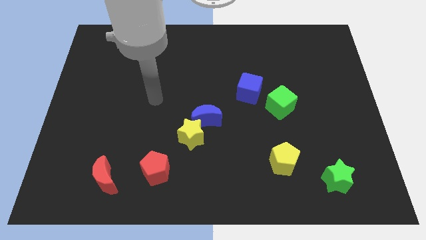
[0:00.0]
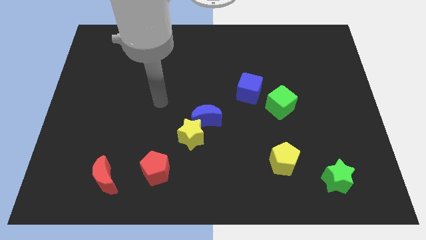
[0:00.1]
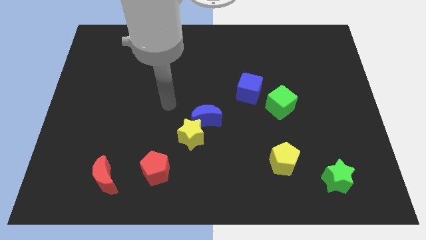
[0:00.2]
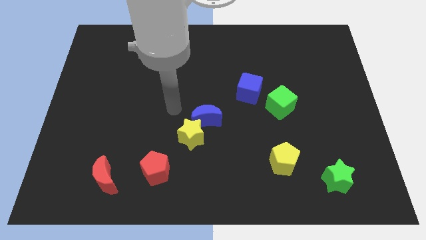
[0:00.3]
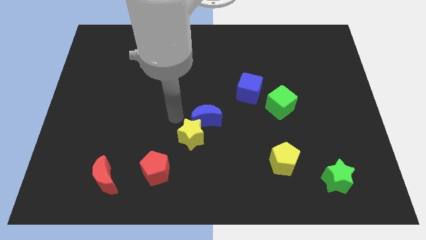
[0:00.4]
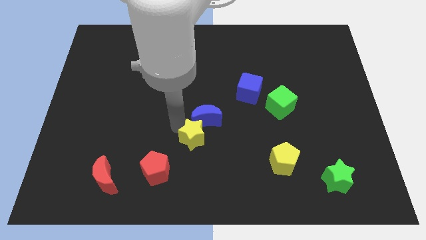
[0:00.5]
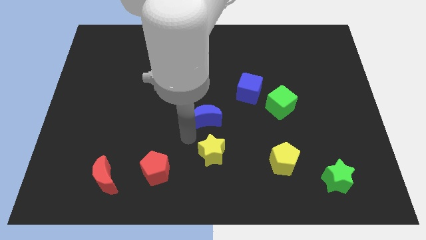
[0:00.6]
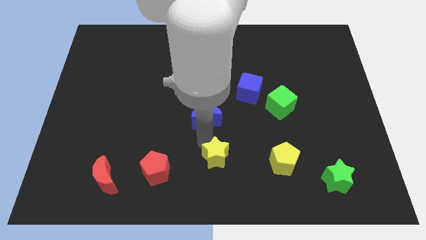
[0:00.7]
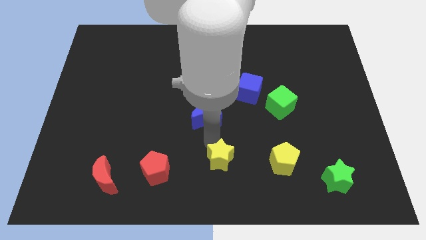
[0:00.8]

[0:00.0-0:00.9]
move the blue moon away from the yellow star

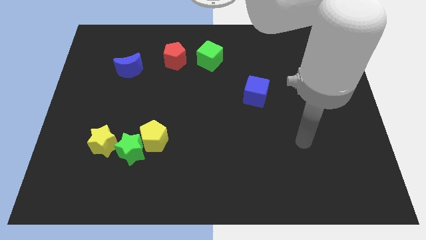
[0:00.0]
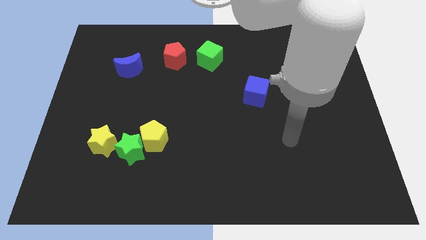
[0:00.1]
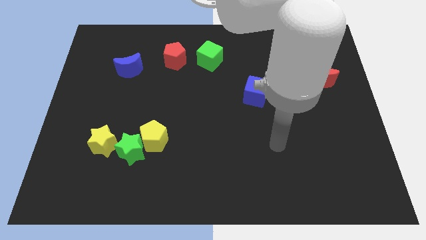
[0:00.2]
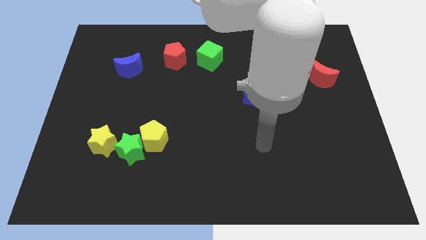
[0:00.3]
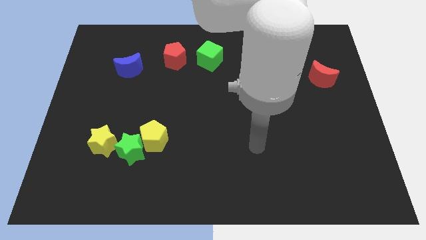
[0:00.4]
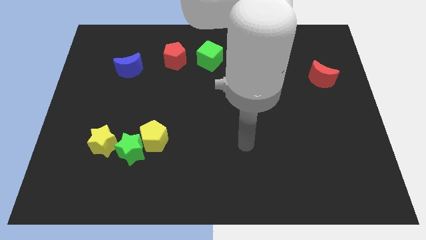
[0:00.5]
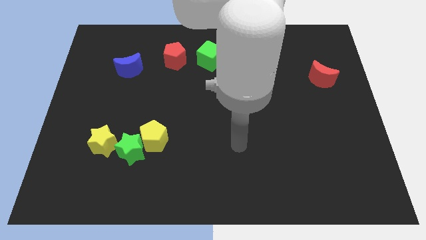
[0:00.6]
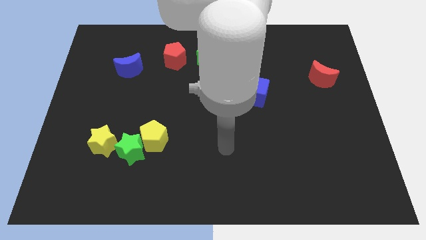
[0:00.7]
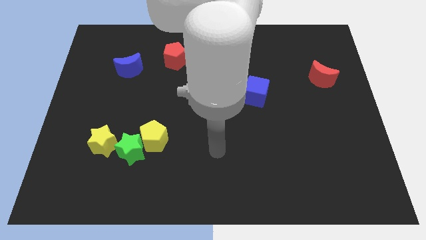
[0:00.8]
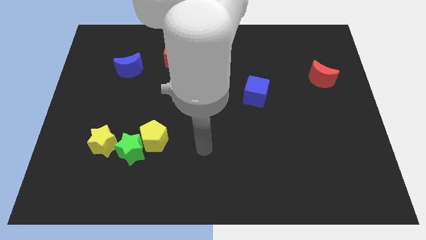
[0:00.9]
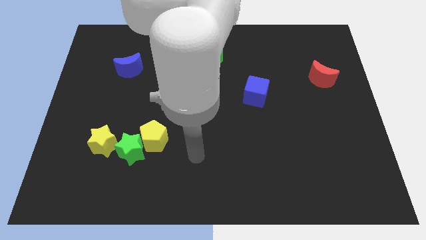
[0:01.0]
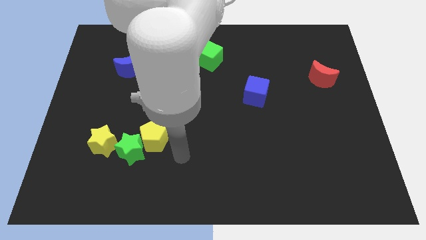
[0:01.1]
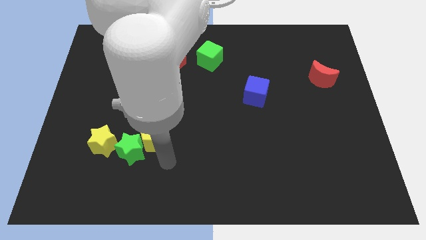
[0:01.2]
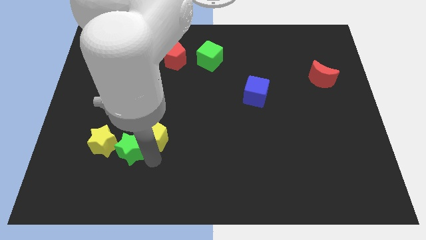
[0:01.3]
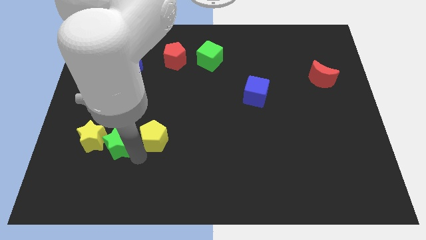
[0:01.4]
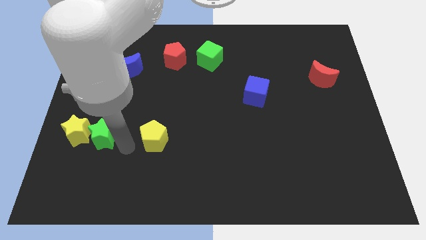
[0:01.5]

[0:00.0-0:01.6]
move the yellow pentagon away from the green star

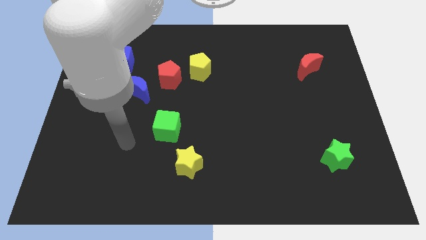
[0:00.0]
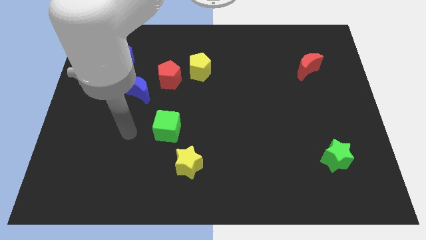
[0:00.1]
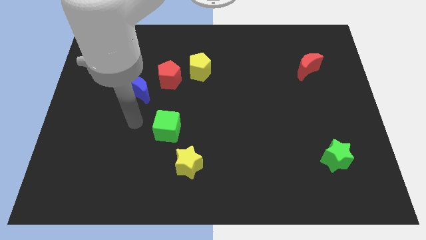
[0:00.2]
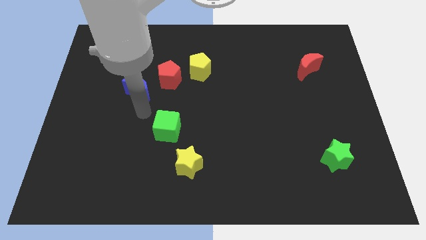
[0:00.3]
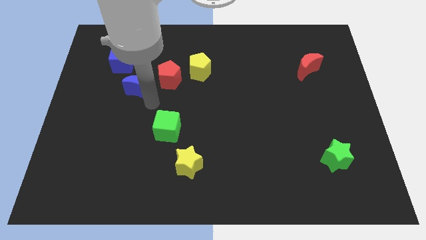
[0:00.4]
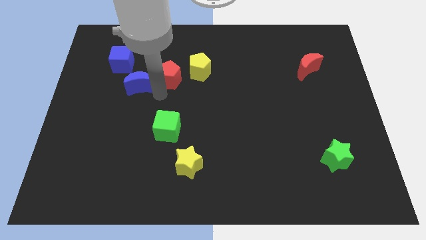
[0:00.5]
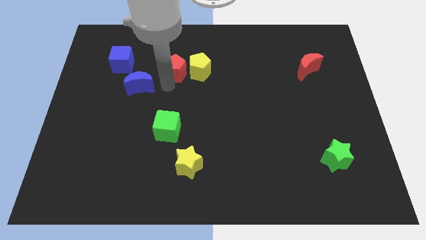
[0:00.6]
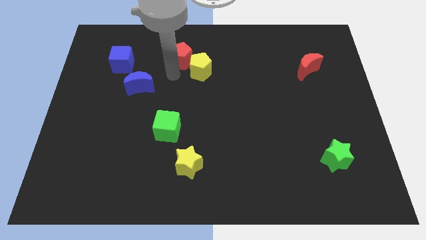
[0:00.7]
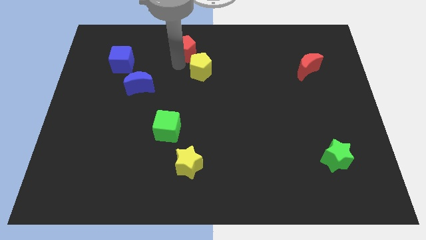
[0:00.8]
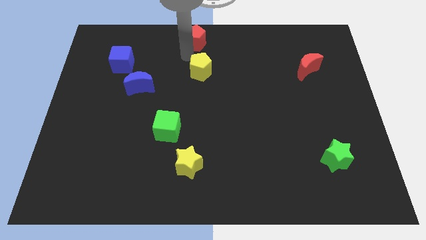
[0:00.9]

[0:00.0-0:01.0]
move the yellow pentagon away from the red pentagon

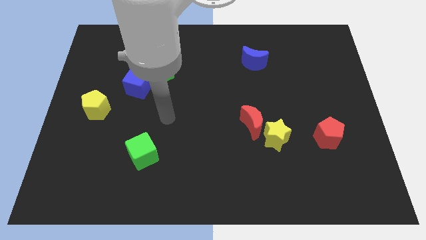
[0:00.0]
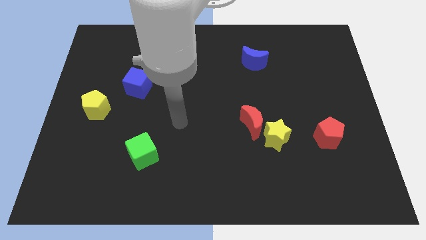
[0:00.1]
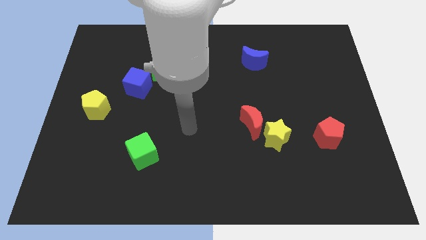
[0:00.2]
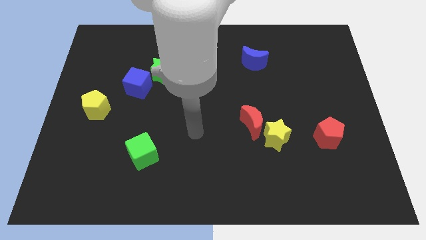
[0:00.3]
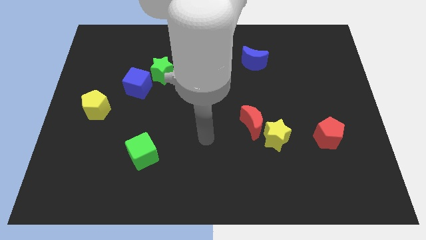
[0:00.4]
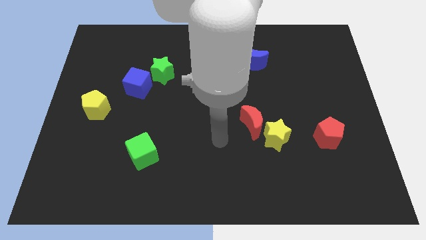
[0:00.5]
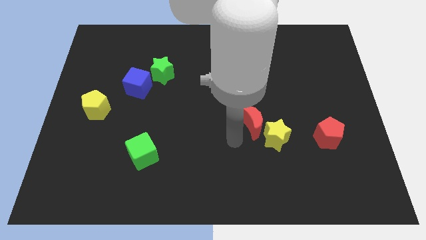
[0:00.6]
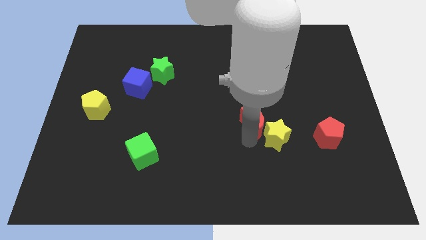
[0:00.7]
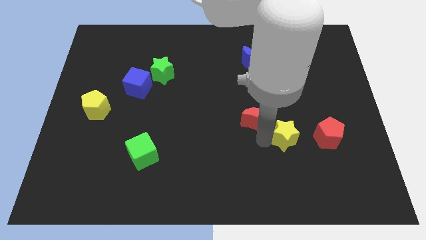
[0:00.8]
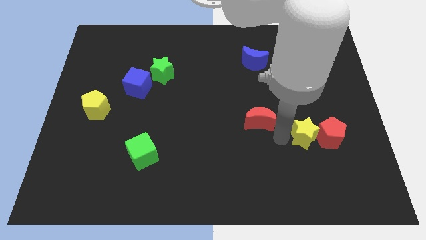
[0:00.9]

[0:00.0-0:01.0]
pull the red moon apart from the yellow star

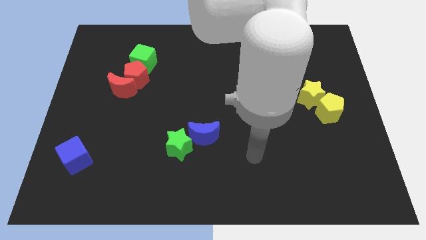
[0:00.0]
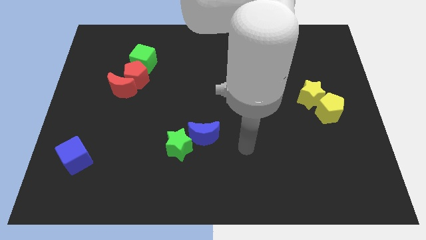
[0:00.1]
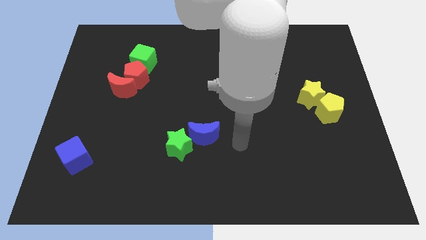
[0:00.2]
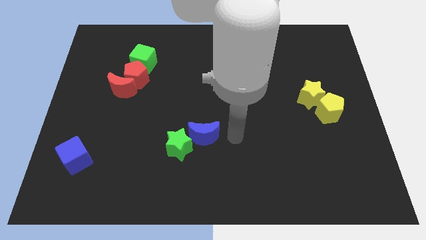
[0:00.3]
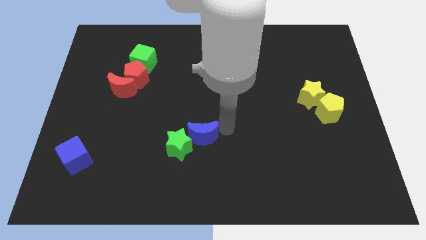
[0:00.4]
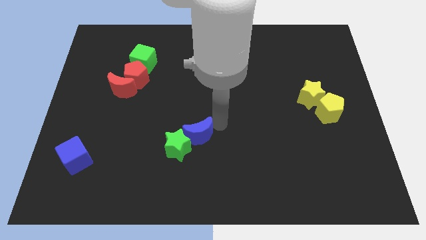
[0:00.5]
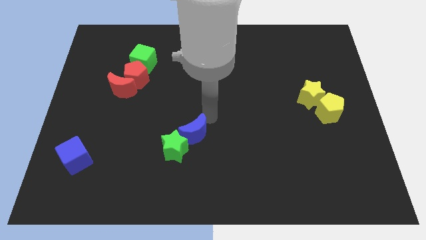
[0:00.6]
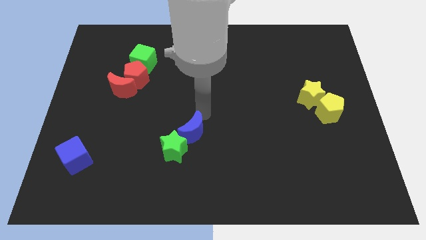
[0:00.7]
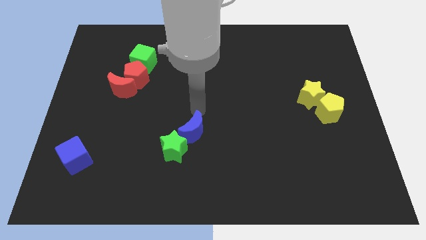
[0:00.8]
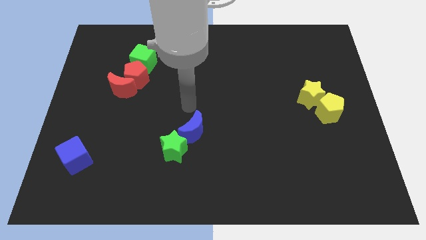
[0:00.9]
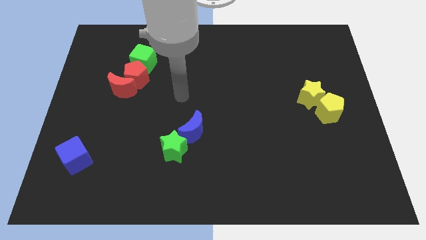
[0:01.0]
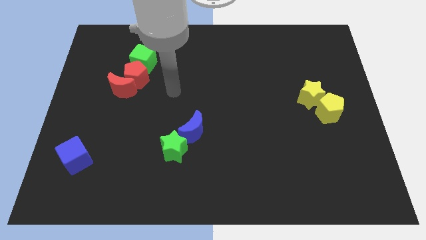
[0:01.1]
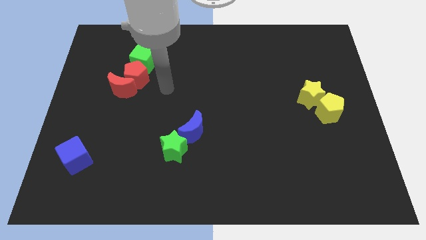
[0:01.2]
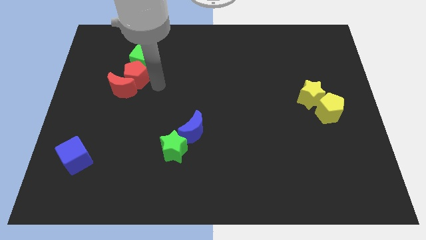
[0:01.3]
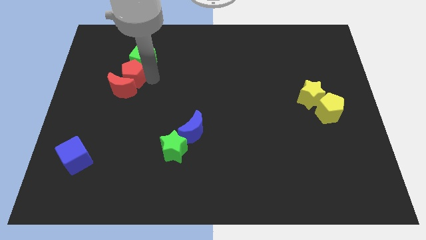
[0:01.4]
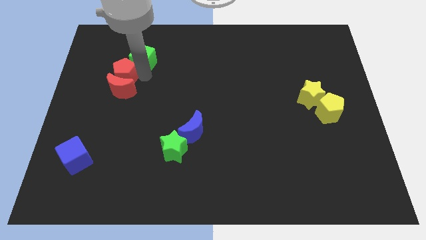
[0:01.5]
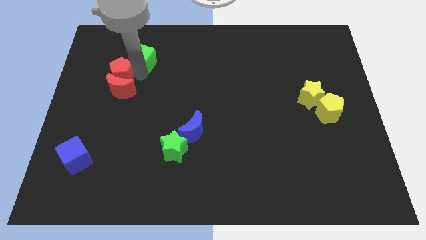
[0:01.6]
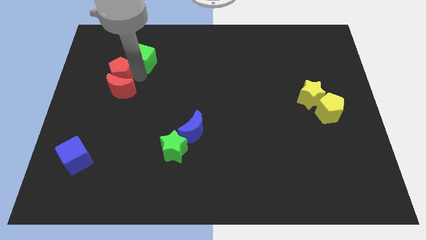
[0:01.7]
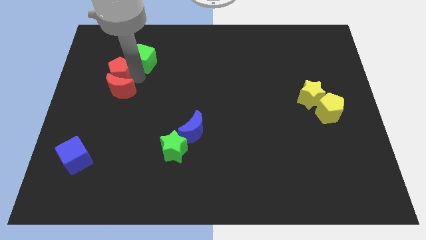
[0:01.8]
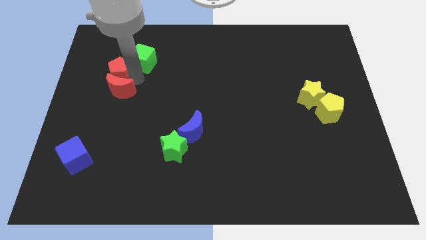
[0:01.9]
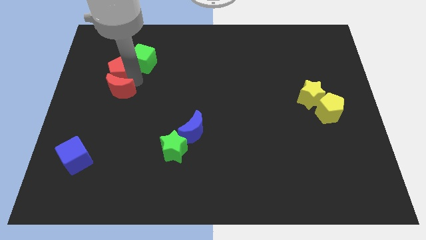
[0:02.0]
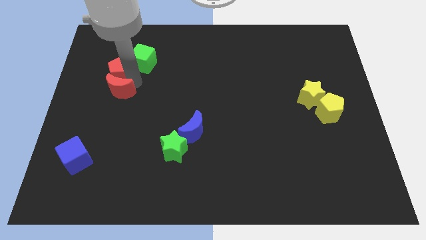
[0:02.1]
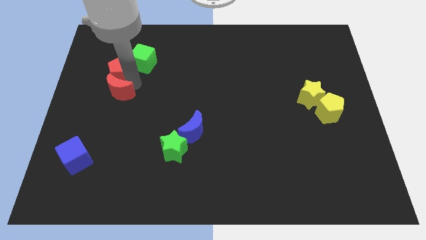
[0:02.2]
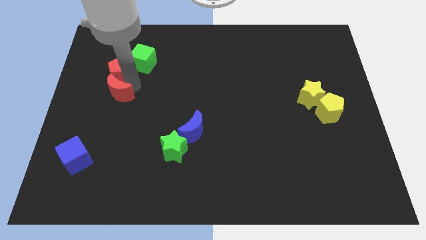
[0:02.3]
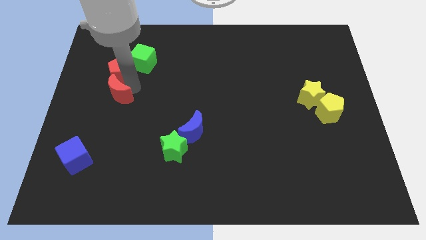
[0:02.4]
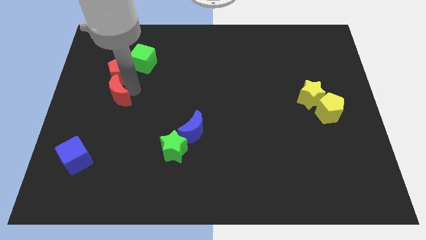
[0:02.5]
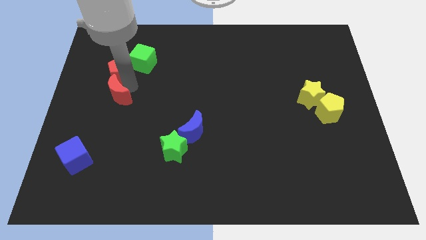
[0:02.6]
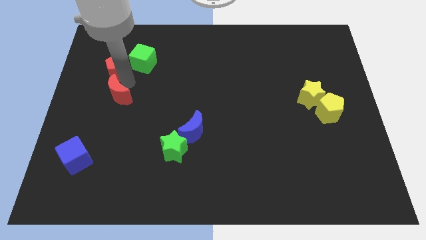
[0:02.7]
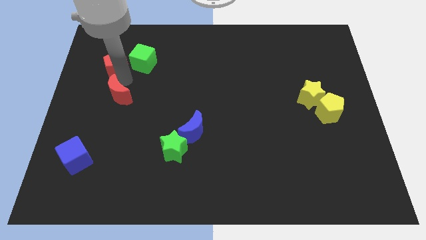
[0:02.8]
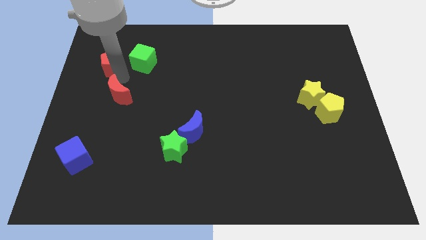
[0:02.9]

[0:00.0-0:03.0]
pull the red moon apart from the red pentagon

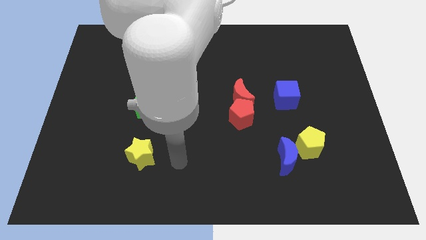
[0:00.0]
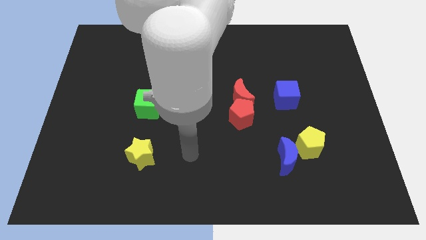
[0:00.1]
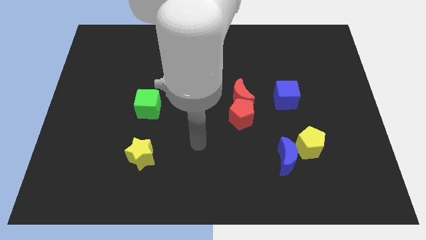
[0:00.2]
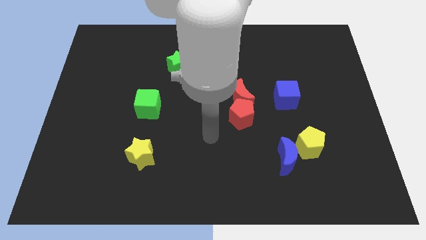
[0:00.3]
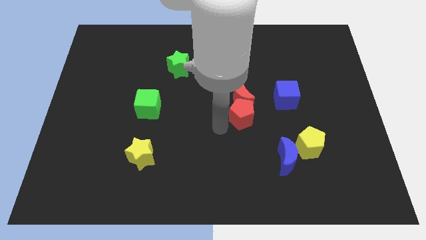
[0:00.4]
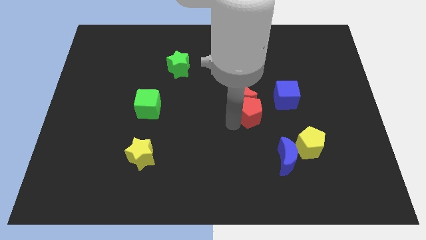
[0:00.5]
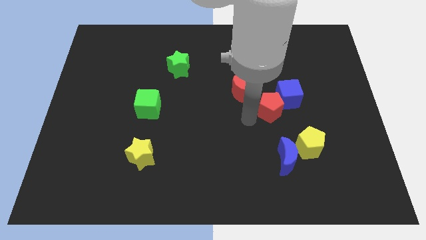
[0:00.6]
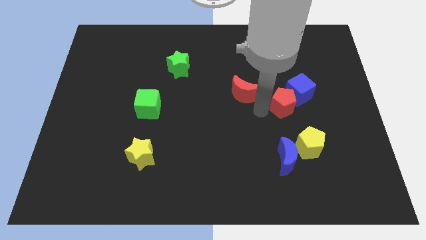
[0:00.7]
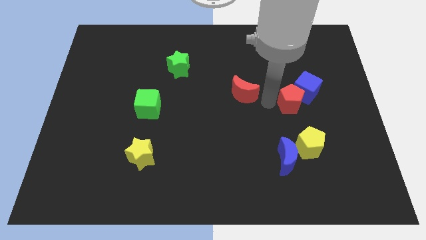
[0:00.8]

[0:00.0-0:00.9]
move the red moon away from the red pentagon

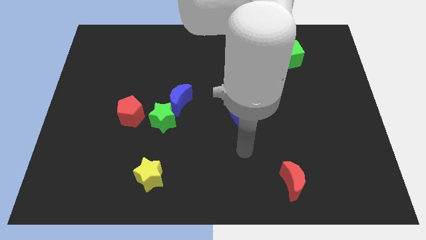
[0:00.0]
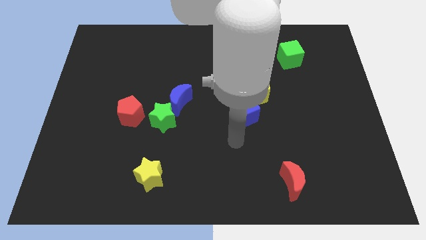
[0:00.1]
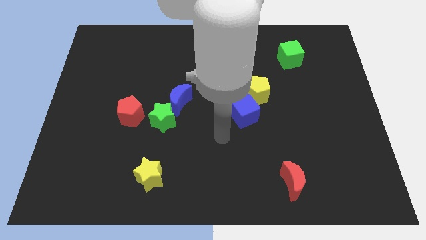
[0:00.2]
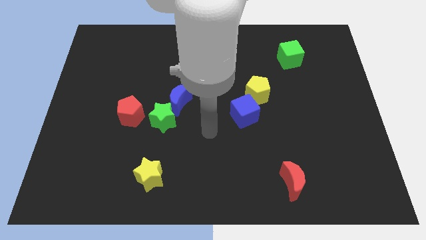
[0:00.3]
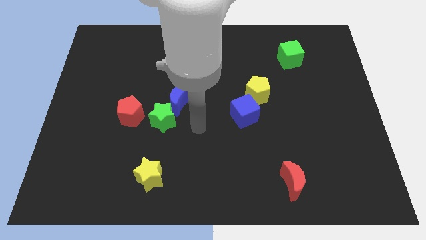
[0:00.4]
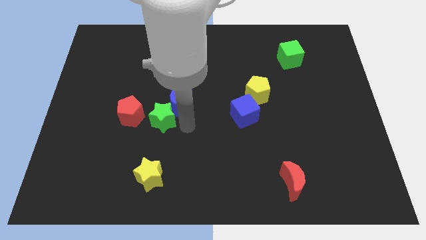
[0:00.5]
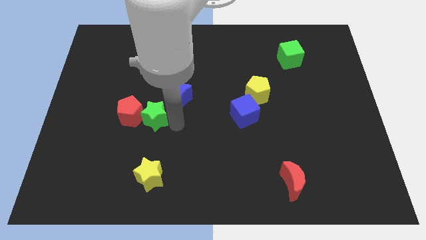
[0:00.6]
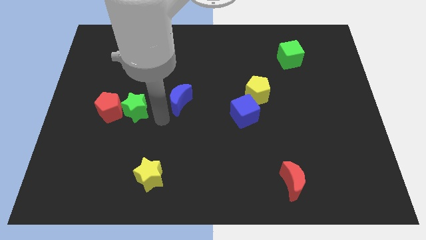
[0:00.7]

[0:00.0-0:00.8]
move the blue moon away from the green star

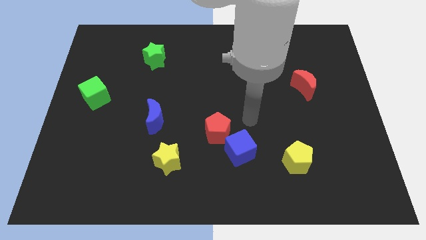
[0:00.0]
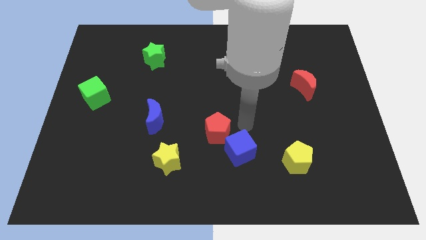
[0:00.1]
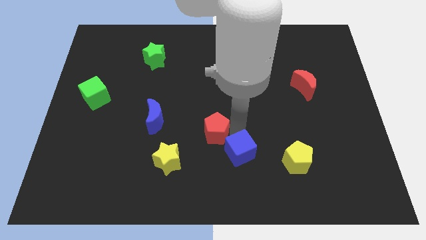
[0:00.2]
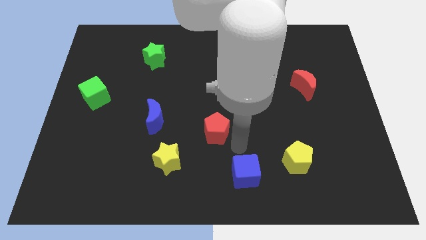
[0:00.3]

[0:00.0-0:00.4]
pull the red pentagon apart from the blue cube
